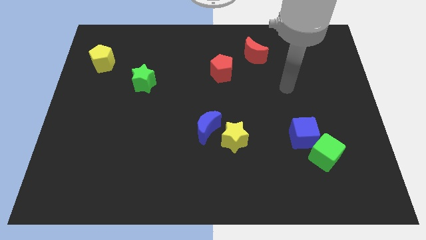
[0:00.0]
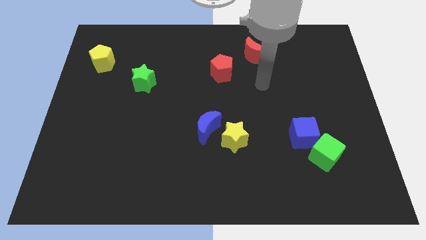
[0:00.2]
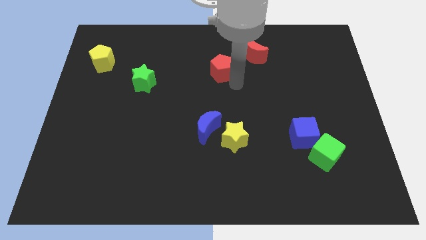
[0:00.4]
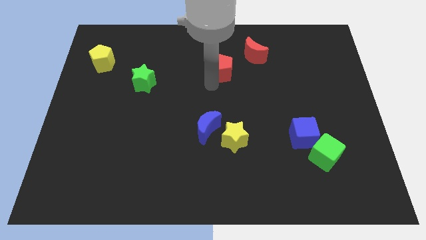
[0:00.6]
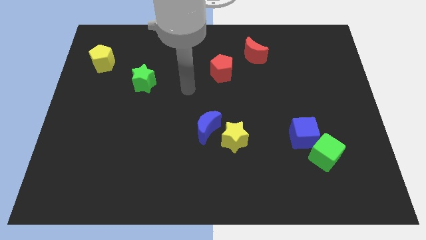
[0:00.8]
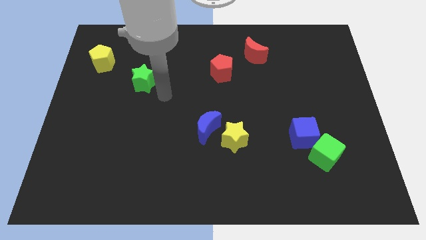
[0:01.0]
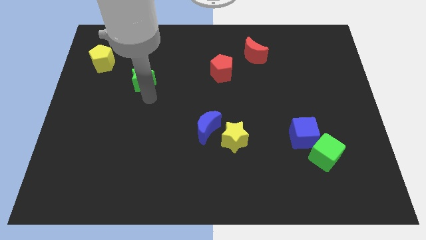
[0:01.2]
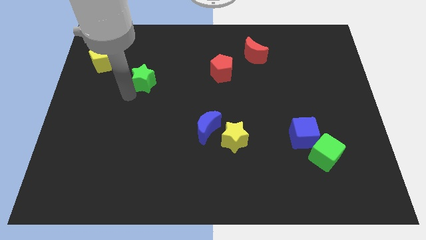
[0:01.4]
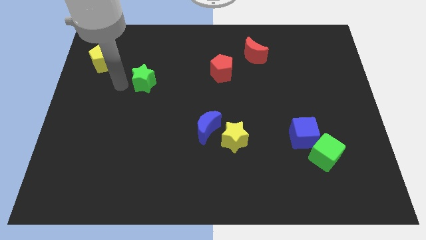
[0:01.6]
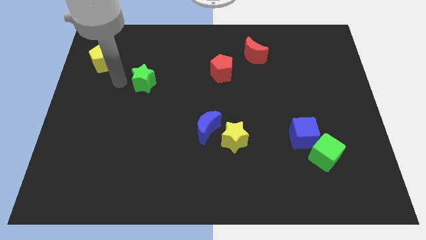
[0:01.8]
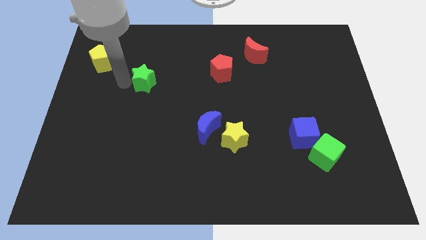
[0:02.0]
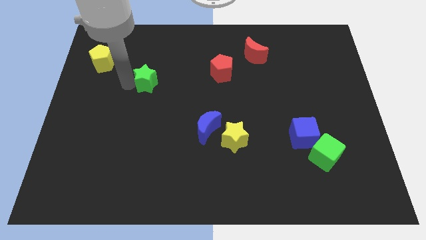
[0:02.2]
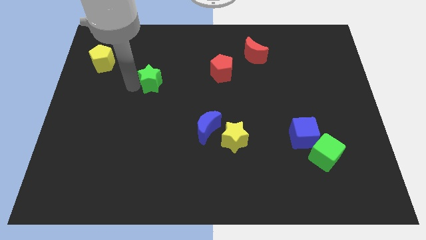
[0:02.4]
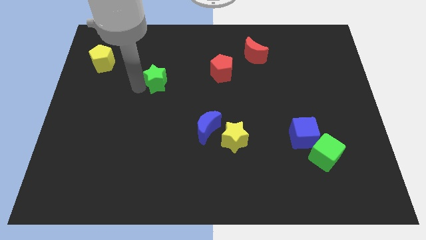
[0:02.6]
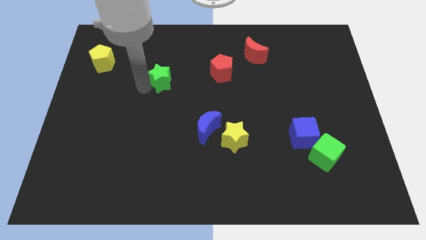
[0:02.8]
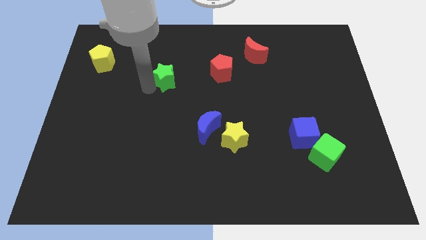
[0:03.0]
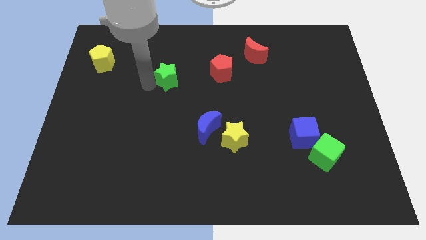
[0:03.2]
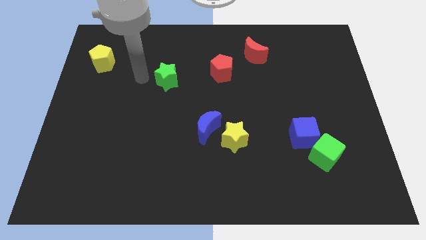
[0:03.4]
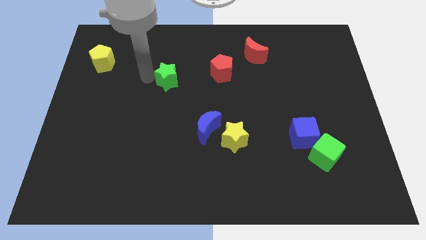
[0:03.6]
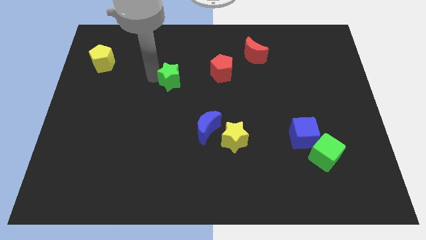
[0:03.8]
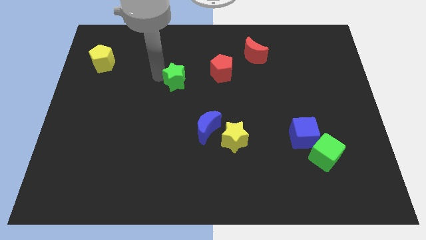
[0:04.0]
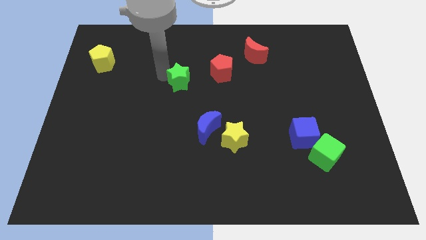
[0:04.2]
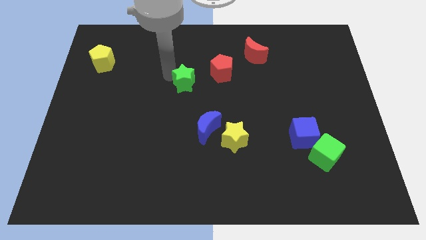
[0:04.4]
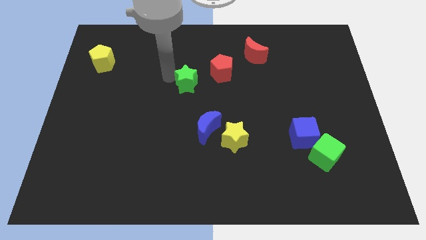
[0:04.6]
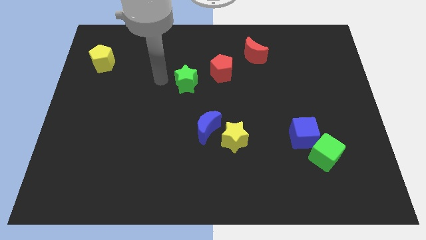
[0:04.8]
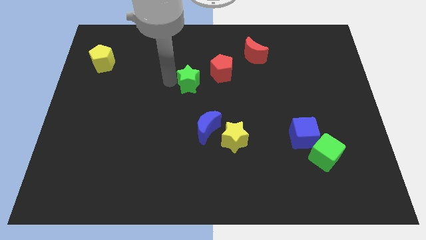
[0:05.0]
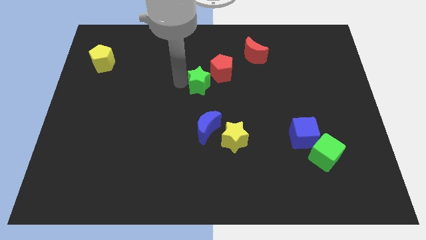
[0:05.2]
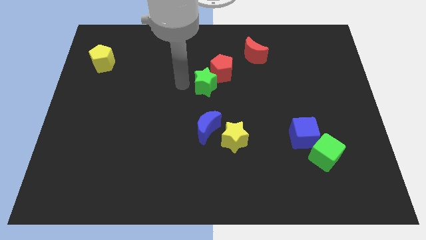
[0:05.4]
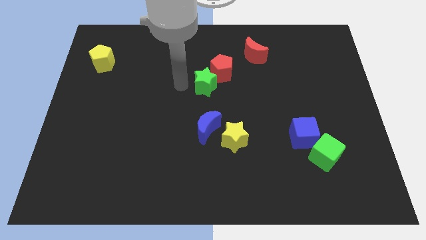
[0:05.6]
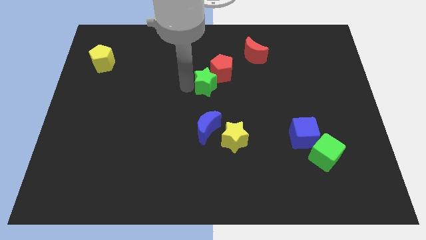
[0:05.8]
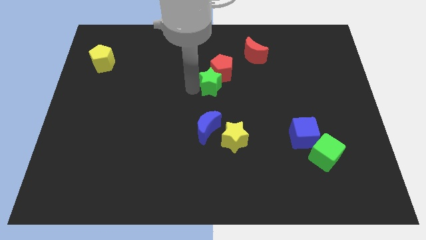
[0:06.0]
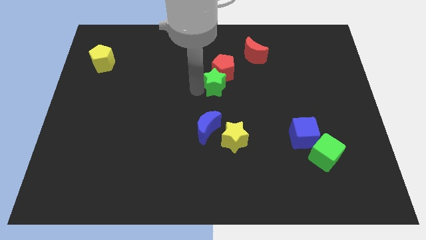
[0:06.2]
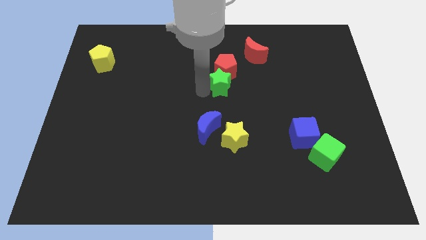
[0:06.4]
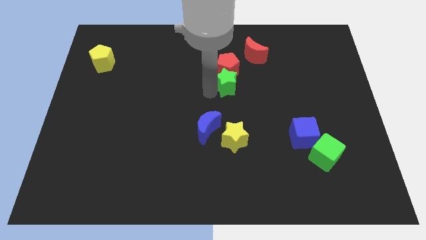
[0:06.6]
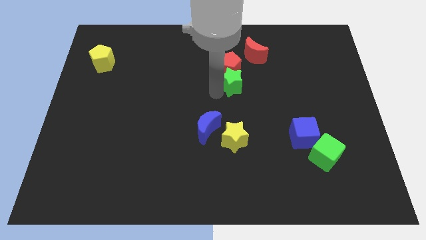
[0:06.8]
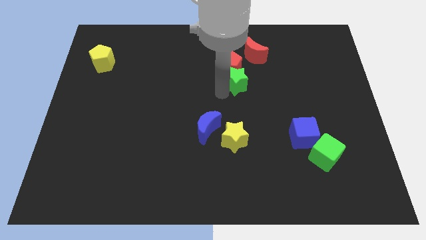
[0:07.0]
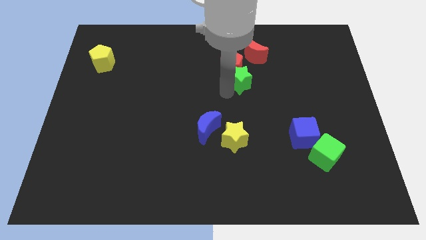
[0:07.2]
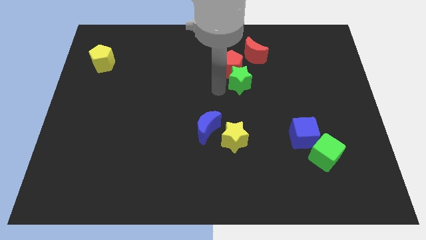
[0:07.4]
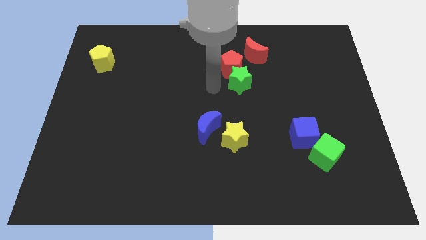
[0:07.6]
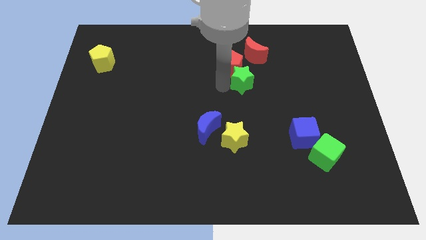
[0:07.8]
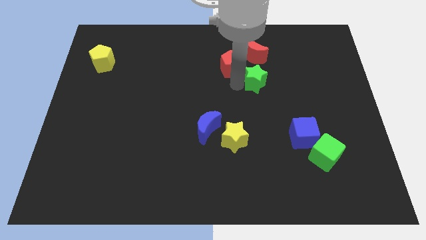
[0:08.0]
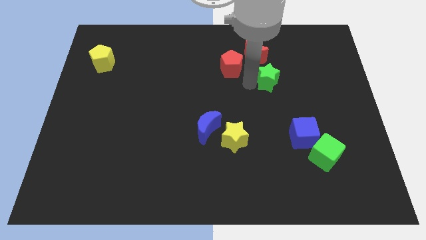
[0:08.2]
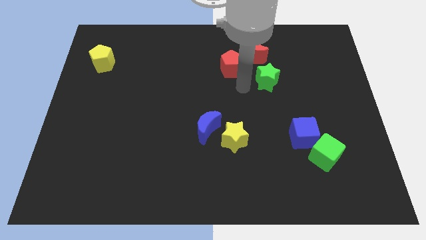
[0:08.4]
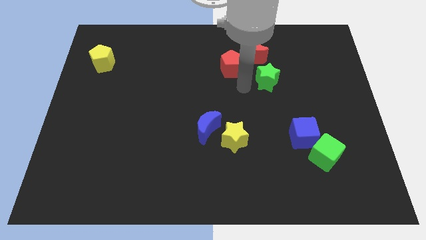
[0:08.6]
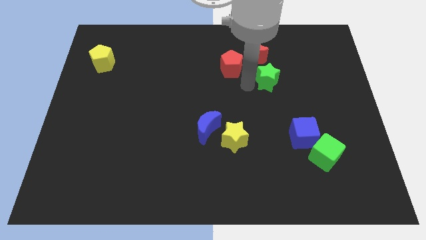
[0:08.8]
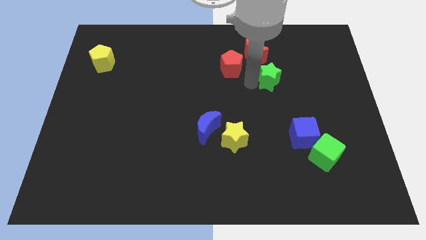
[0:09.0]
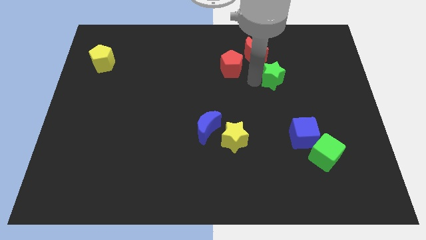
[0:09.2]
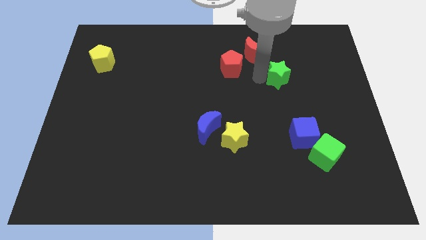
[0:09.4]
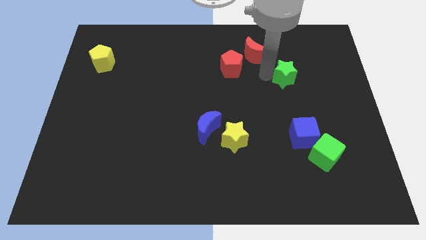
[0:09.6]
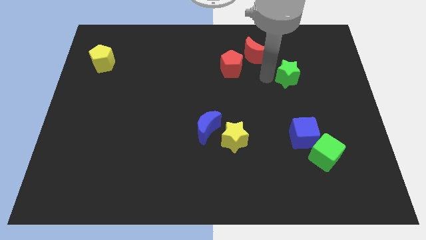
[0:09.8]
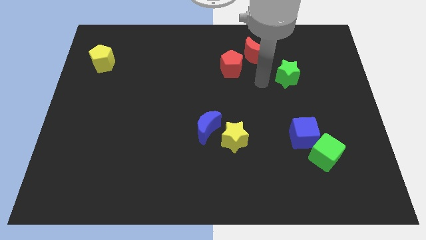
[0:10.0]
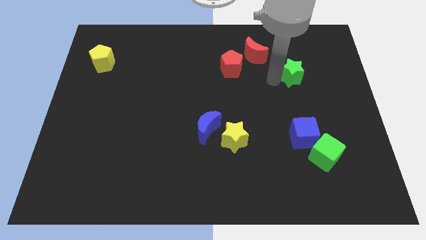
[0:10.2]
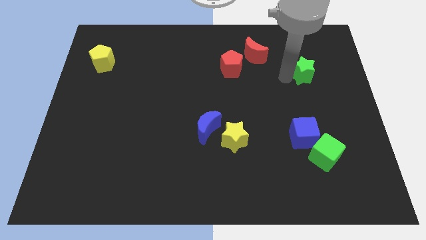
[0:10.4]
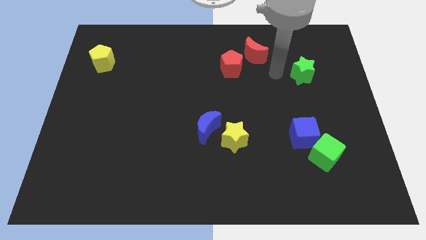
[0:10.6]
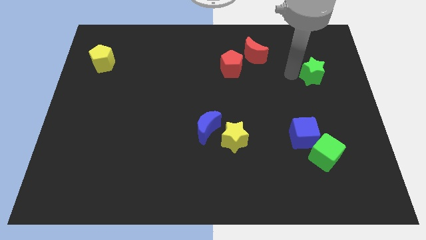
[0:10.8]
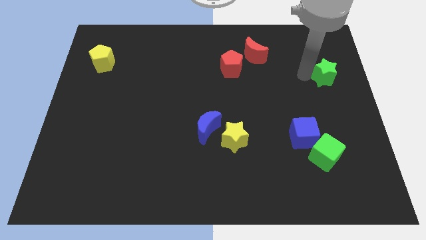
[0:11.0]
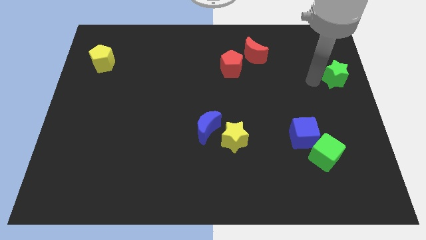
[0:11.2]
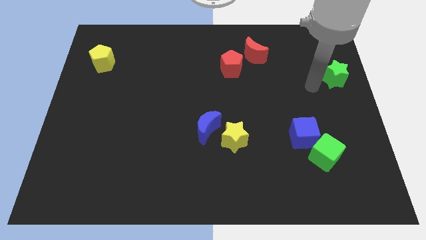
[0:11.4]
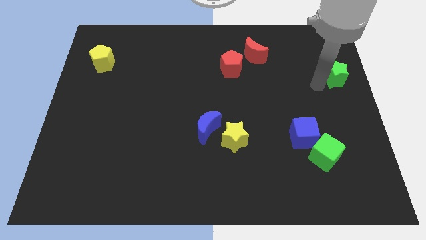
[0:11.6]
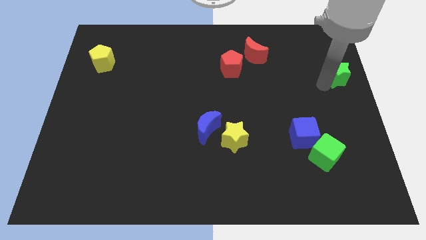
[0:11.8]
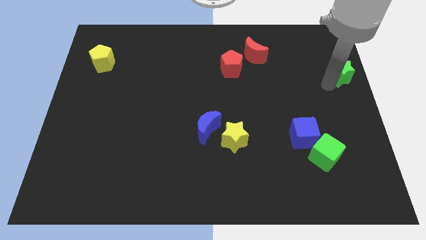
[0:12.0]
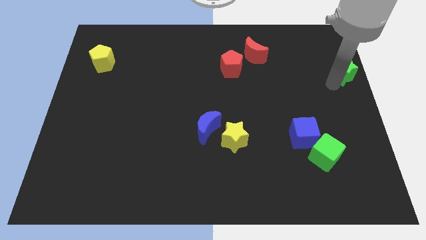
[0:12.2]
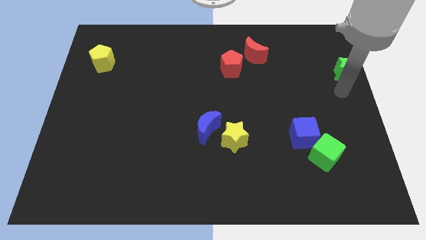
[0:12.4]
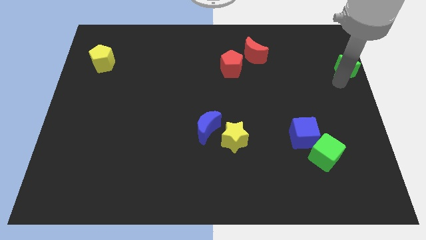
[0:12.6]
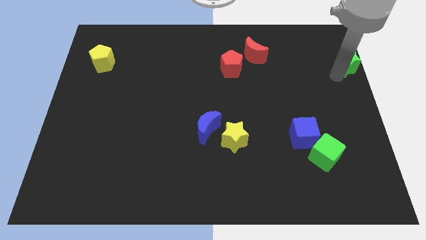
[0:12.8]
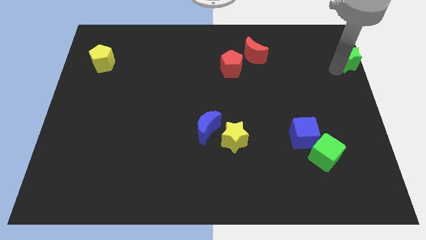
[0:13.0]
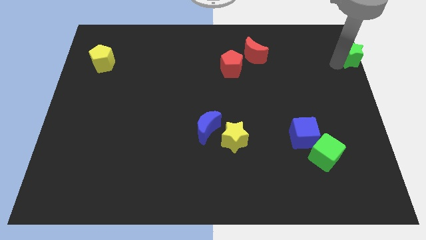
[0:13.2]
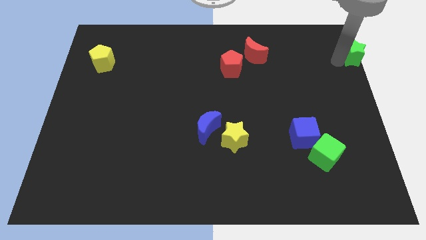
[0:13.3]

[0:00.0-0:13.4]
move the green star to the upper right corner
